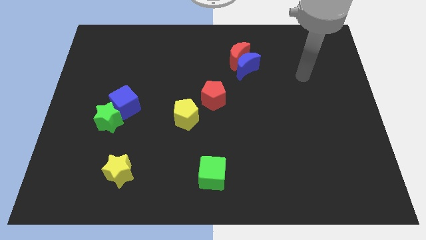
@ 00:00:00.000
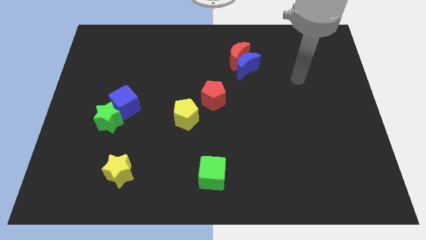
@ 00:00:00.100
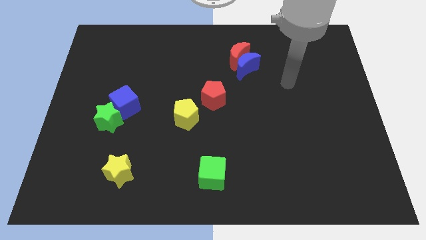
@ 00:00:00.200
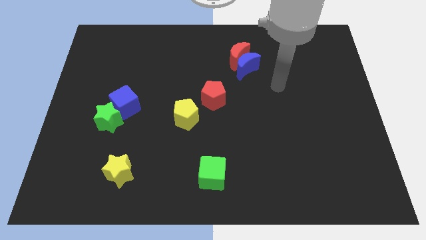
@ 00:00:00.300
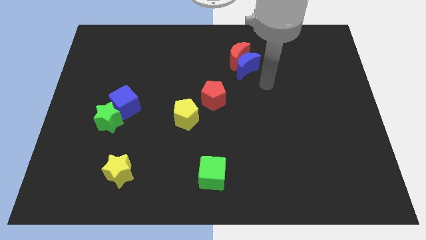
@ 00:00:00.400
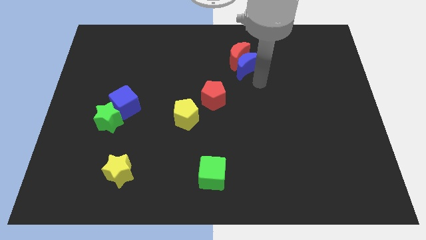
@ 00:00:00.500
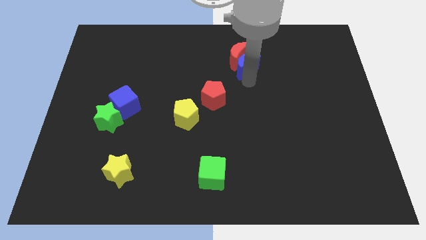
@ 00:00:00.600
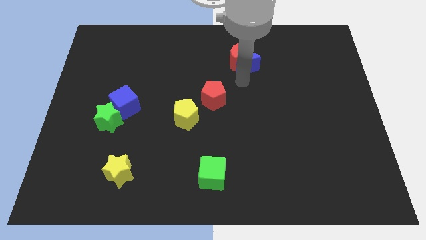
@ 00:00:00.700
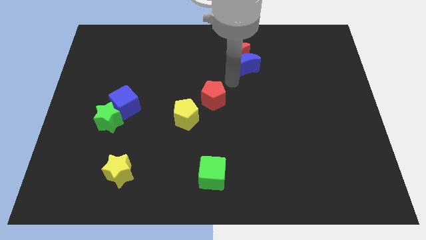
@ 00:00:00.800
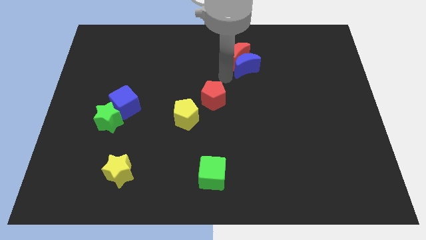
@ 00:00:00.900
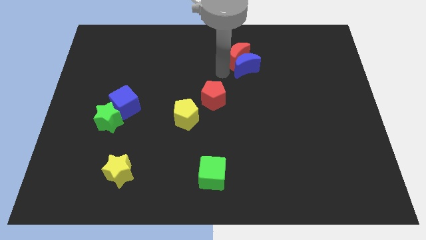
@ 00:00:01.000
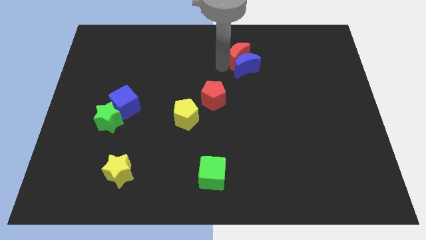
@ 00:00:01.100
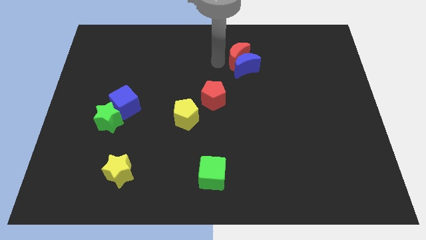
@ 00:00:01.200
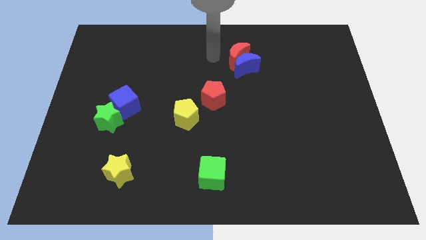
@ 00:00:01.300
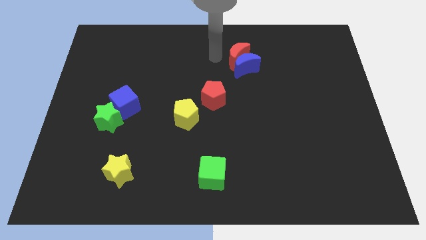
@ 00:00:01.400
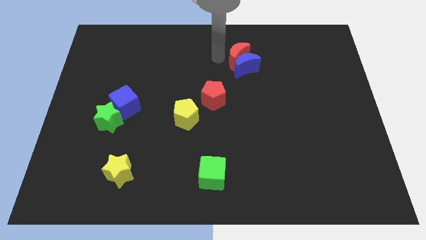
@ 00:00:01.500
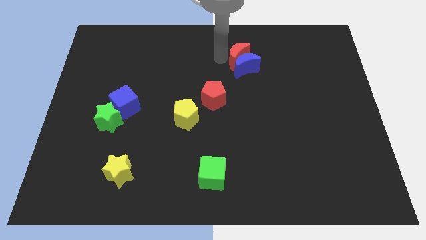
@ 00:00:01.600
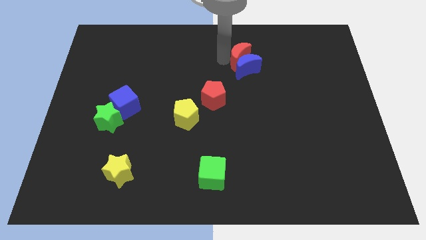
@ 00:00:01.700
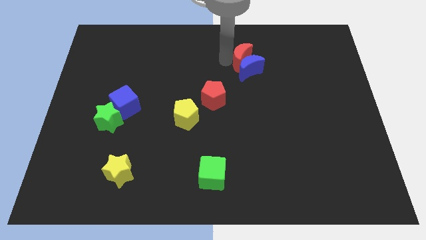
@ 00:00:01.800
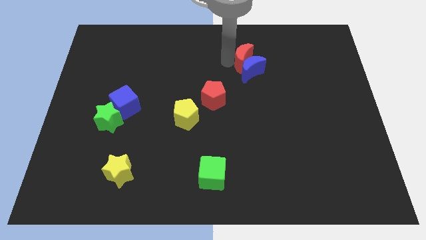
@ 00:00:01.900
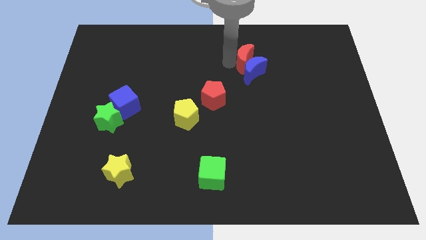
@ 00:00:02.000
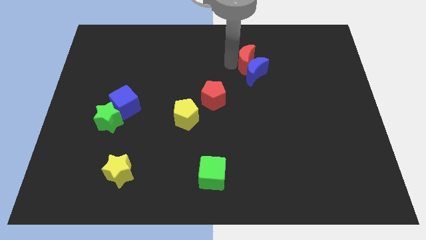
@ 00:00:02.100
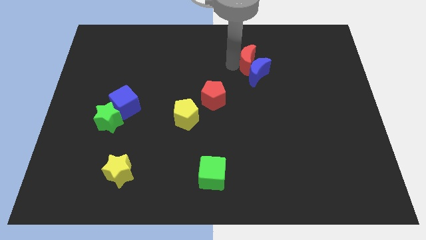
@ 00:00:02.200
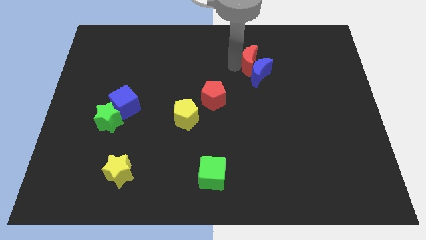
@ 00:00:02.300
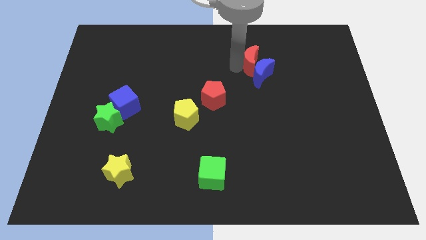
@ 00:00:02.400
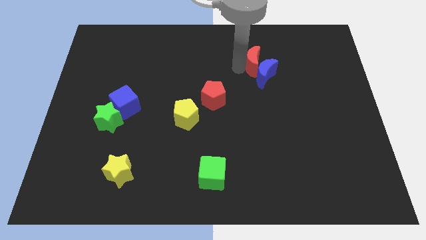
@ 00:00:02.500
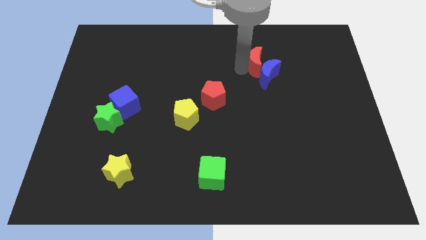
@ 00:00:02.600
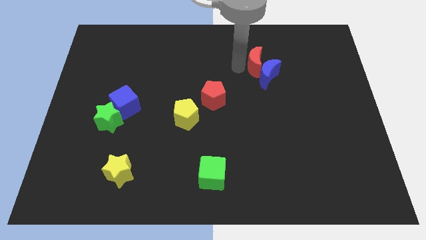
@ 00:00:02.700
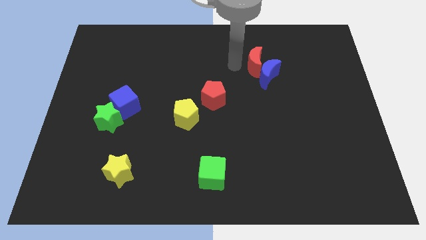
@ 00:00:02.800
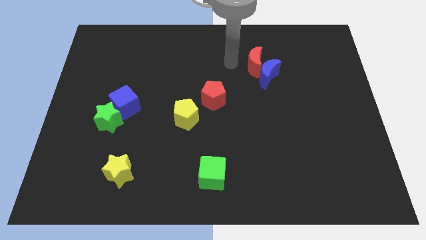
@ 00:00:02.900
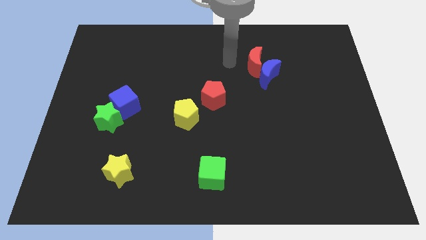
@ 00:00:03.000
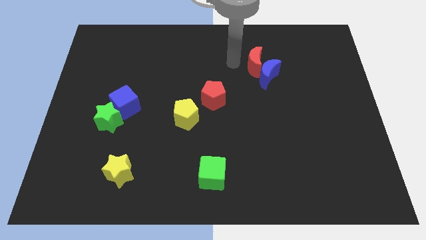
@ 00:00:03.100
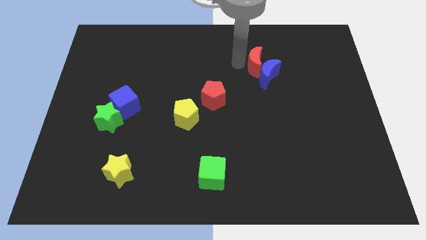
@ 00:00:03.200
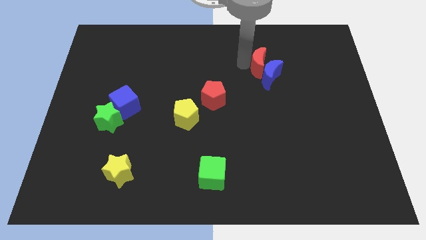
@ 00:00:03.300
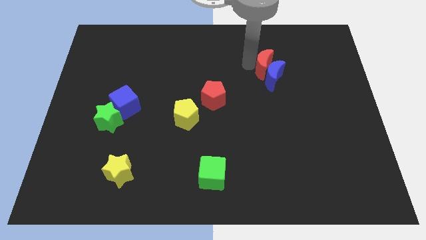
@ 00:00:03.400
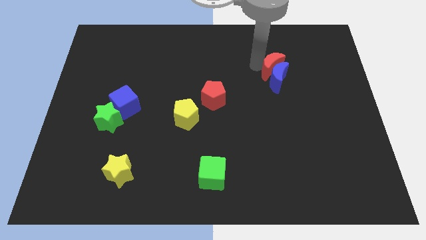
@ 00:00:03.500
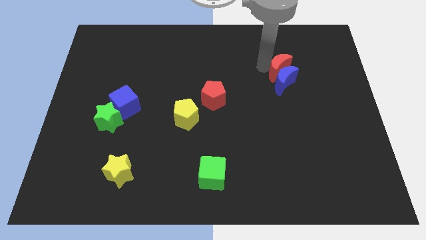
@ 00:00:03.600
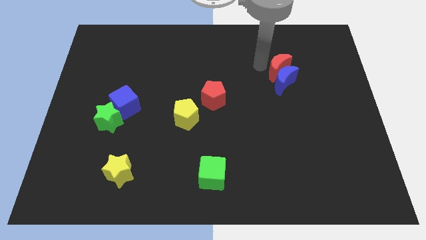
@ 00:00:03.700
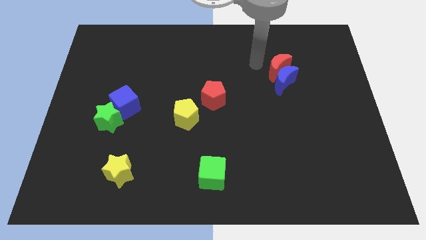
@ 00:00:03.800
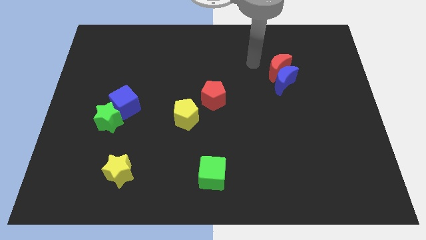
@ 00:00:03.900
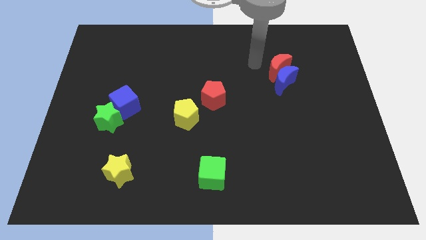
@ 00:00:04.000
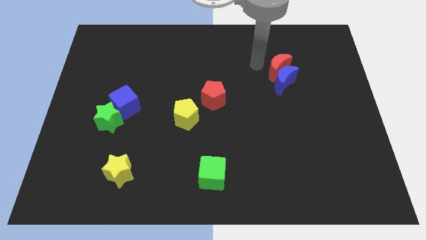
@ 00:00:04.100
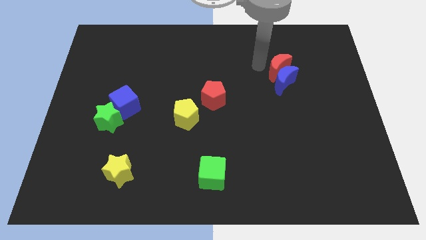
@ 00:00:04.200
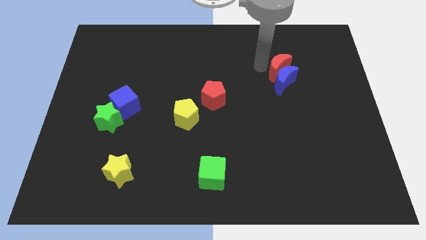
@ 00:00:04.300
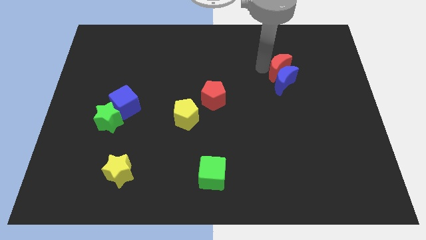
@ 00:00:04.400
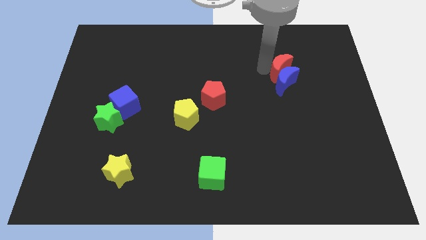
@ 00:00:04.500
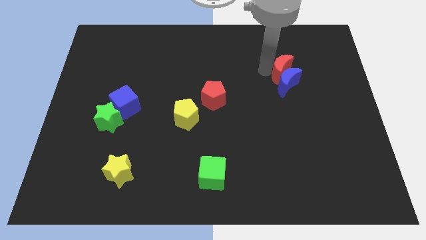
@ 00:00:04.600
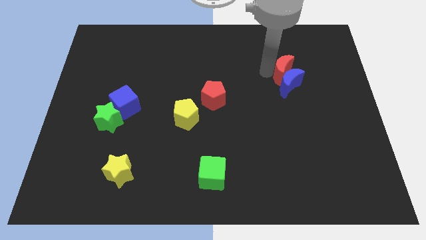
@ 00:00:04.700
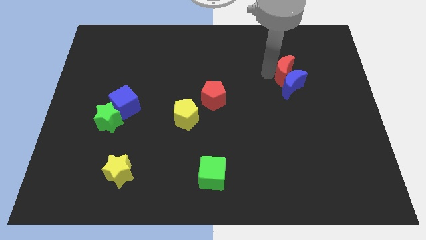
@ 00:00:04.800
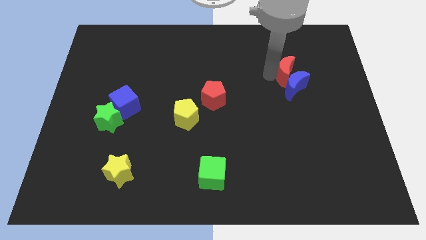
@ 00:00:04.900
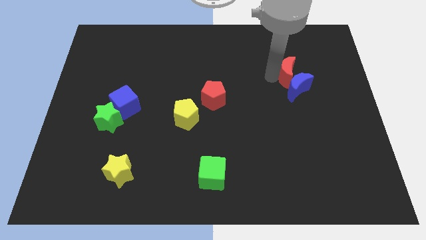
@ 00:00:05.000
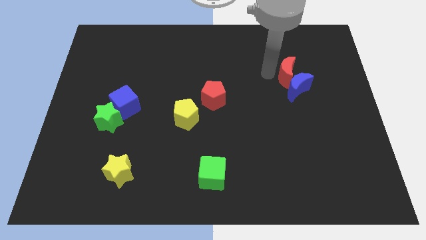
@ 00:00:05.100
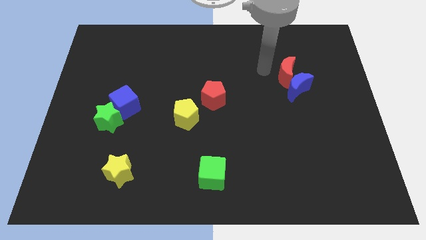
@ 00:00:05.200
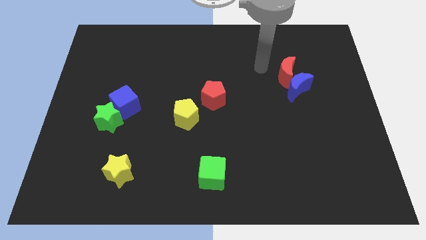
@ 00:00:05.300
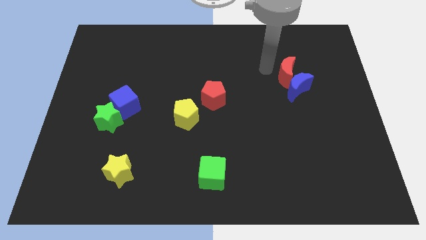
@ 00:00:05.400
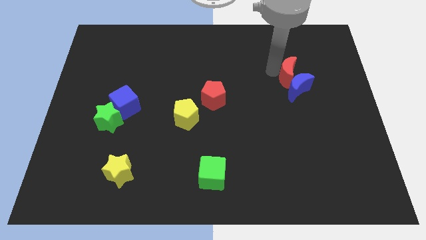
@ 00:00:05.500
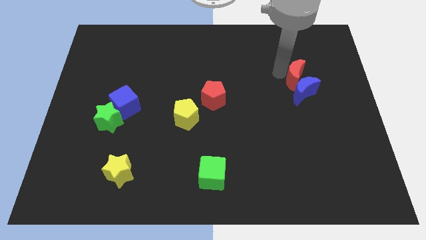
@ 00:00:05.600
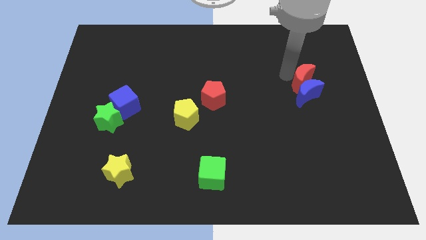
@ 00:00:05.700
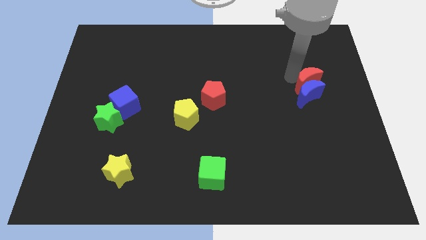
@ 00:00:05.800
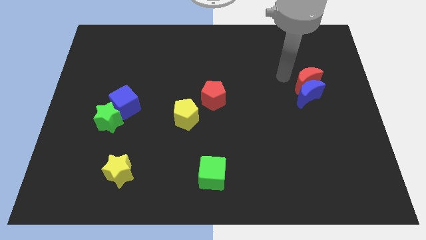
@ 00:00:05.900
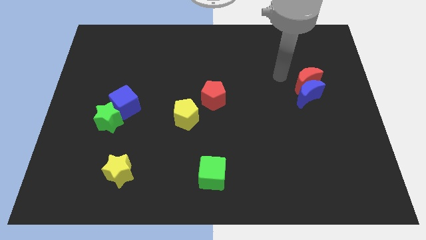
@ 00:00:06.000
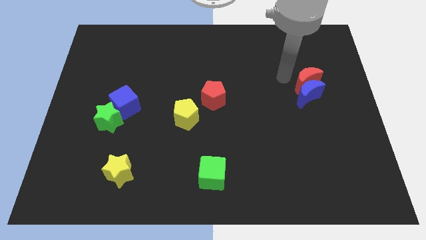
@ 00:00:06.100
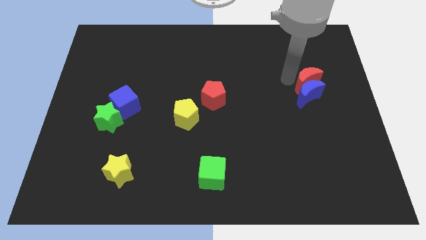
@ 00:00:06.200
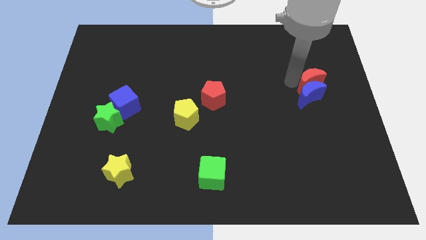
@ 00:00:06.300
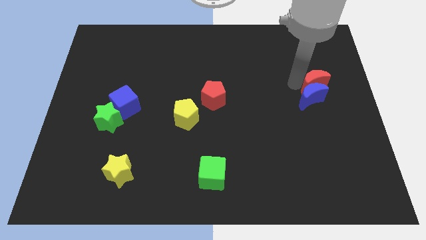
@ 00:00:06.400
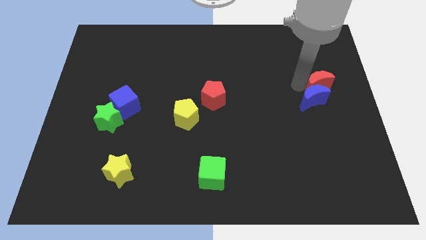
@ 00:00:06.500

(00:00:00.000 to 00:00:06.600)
slide the red moon to the right side of the board
